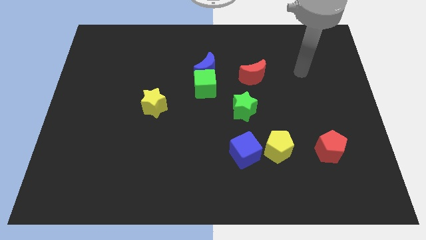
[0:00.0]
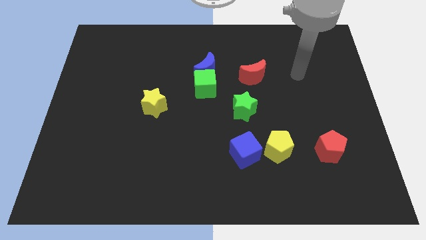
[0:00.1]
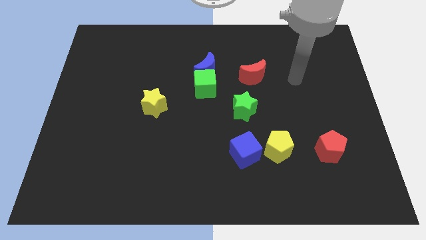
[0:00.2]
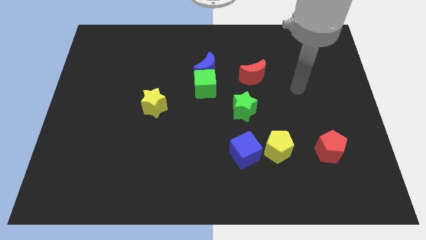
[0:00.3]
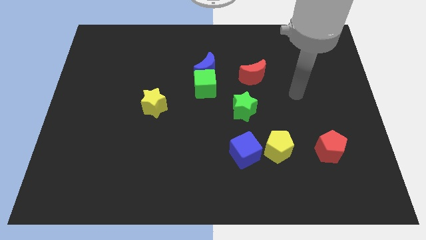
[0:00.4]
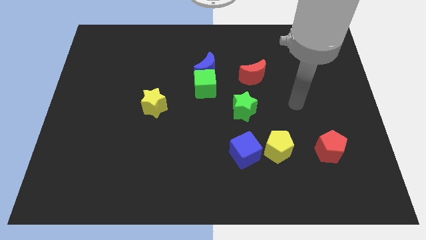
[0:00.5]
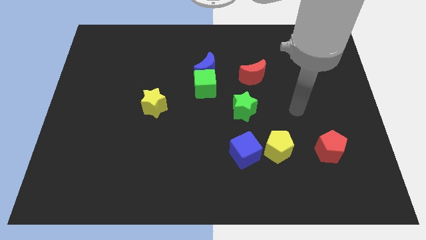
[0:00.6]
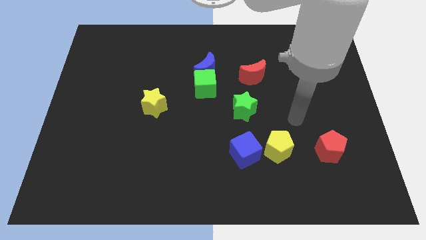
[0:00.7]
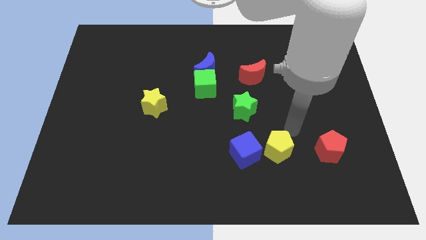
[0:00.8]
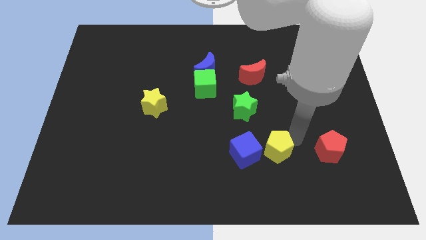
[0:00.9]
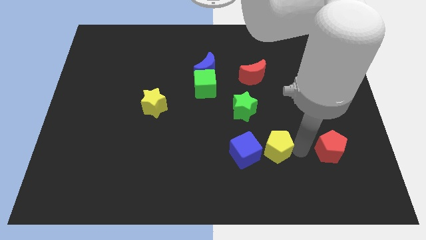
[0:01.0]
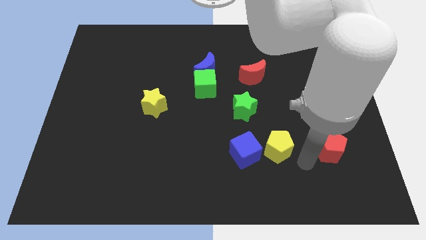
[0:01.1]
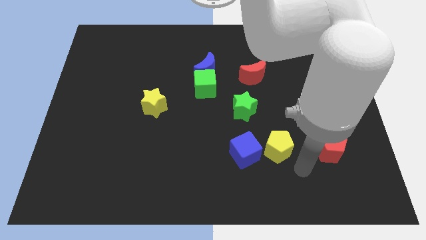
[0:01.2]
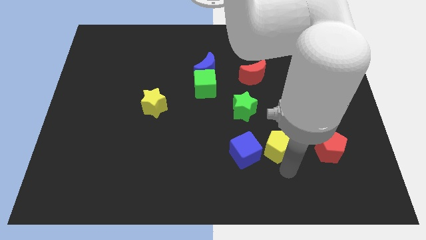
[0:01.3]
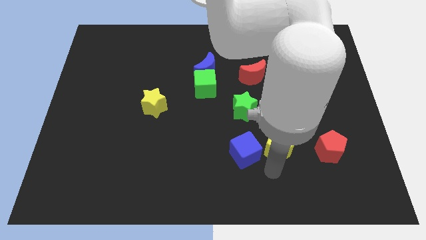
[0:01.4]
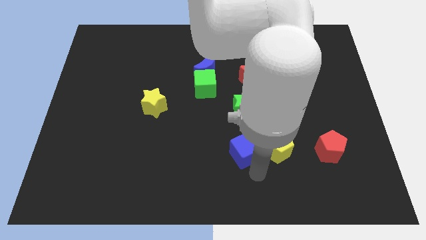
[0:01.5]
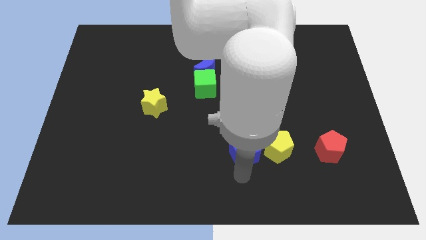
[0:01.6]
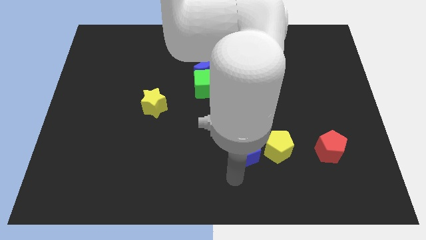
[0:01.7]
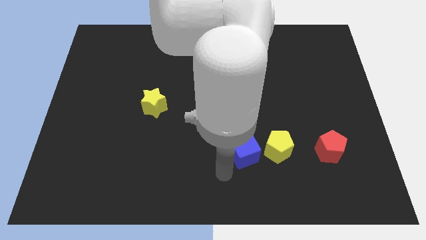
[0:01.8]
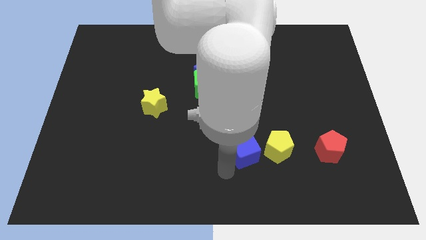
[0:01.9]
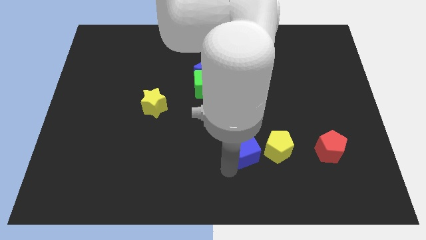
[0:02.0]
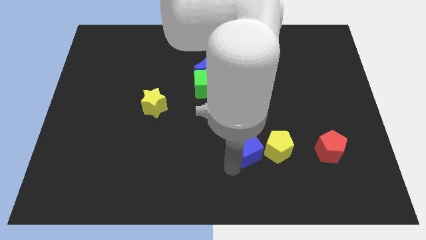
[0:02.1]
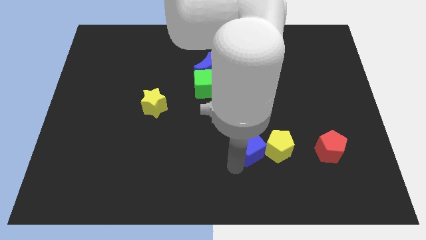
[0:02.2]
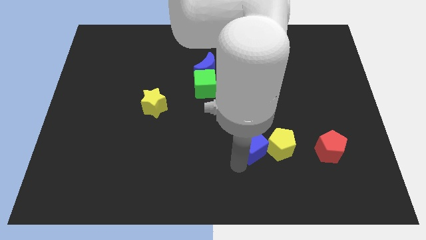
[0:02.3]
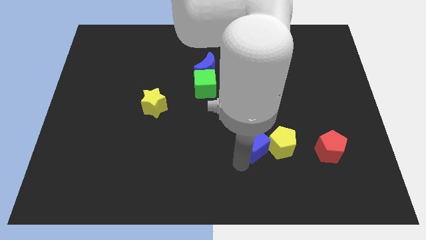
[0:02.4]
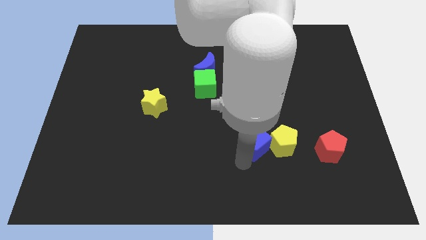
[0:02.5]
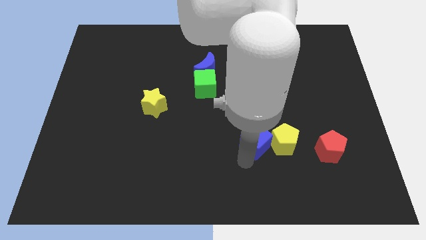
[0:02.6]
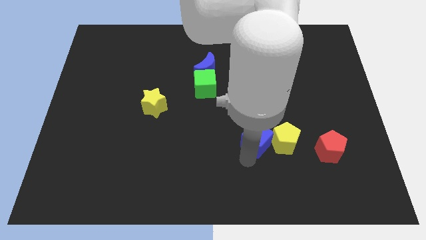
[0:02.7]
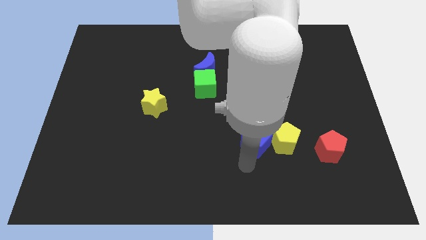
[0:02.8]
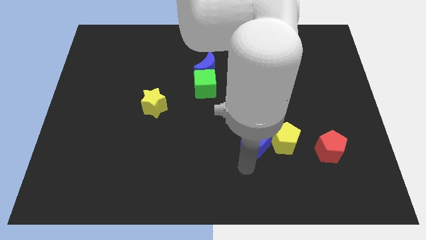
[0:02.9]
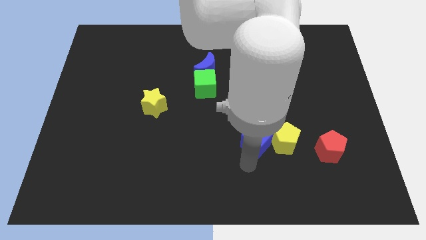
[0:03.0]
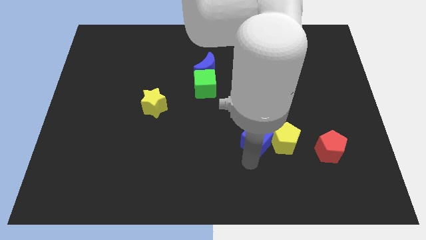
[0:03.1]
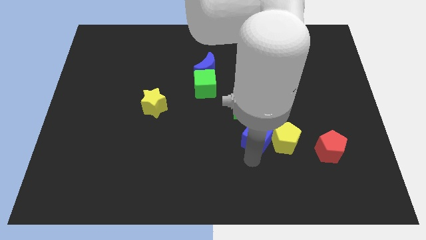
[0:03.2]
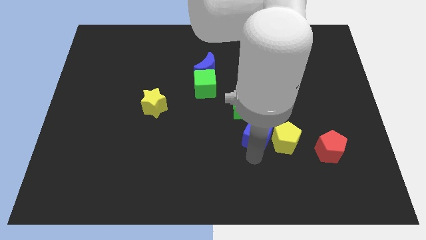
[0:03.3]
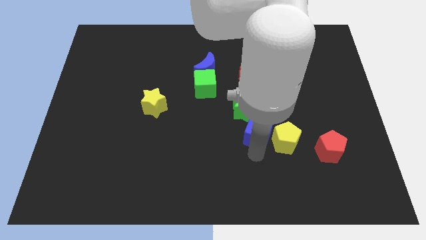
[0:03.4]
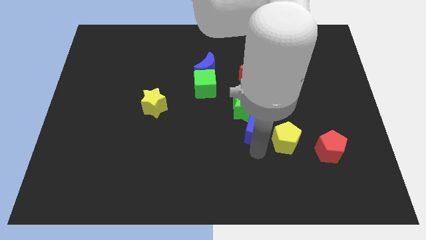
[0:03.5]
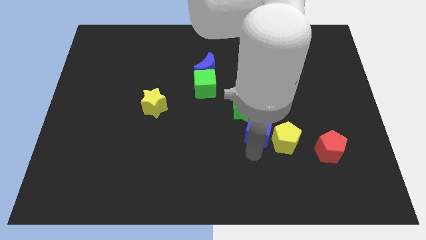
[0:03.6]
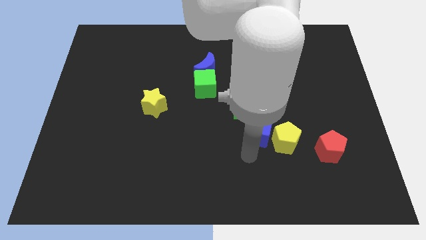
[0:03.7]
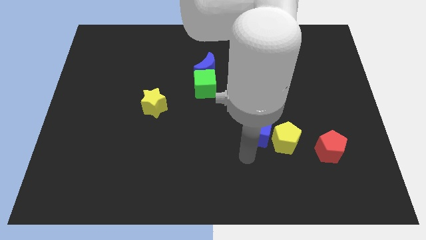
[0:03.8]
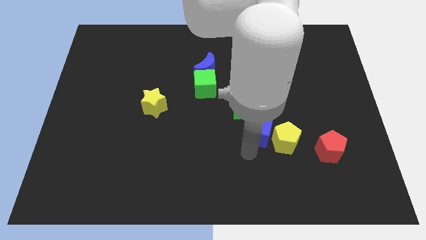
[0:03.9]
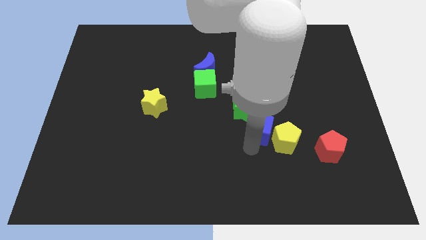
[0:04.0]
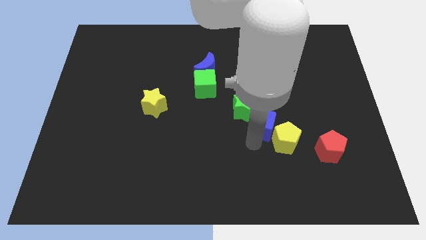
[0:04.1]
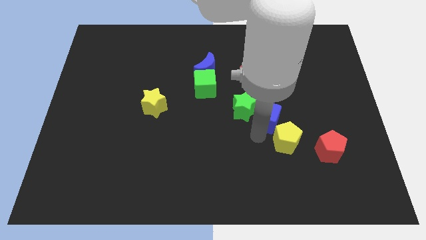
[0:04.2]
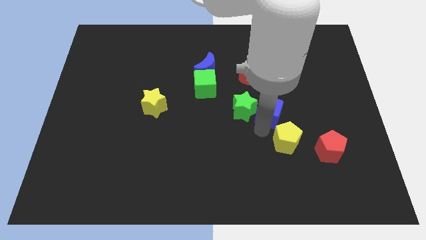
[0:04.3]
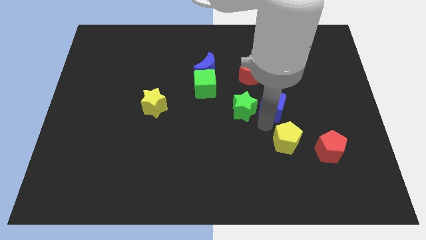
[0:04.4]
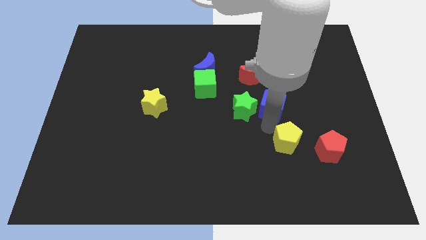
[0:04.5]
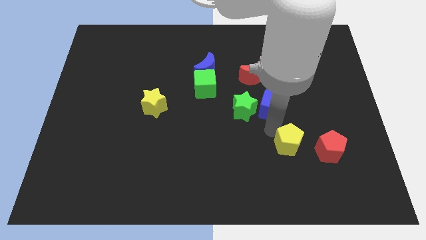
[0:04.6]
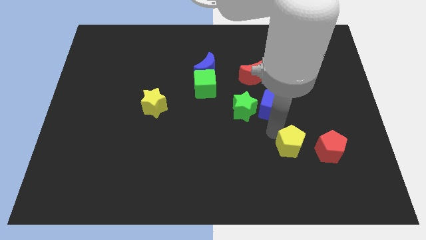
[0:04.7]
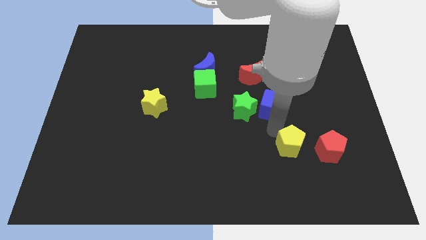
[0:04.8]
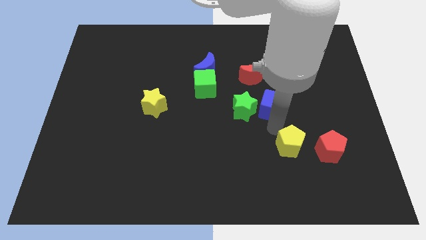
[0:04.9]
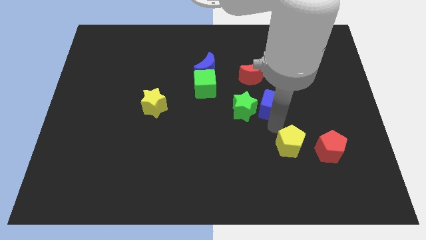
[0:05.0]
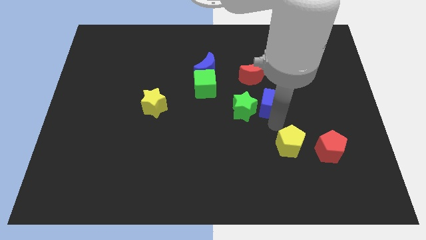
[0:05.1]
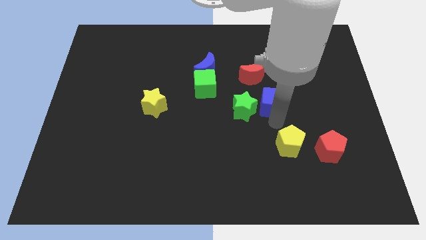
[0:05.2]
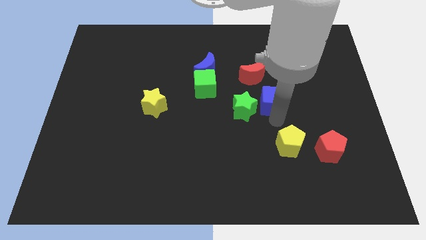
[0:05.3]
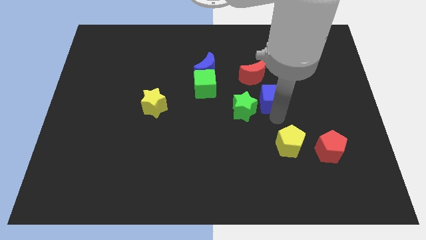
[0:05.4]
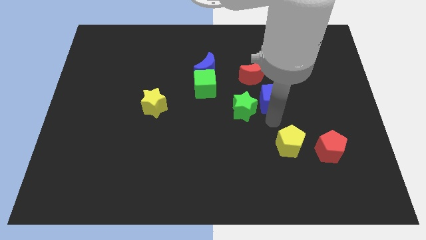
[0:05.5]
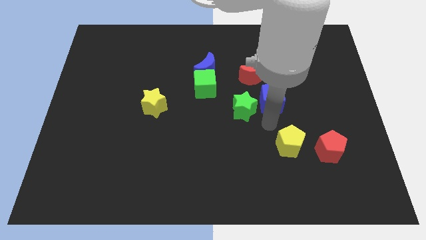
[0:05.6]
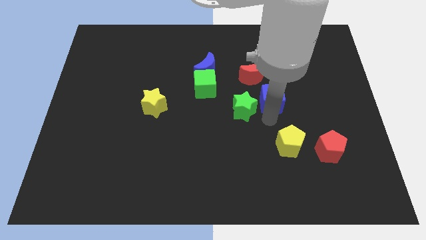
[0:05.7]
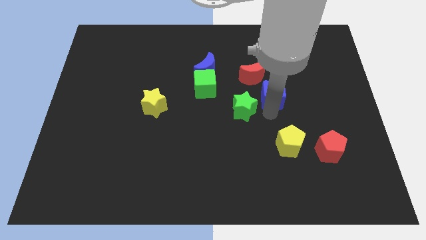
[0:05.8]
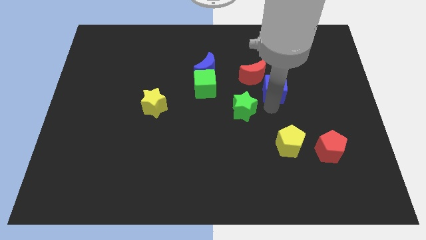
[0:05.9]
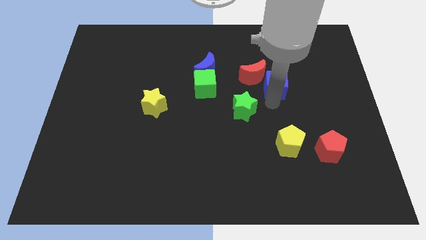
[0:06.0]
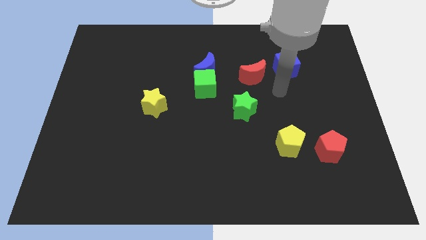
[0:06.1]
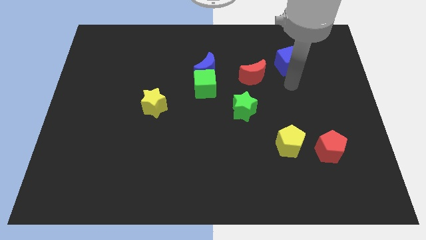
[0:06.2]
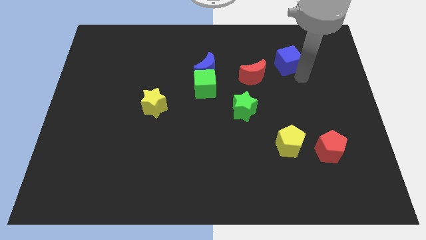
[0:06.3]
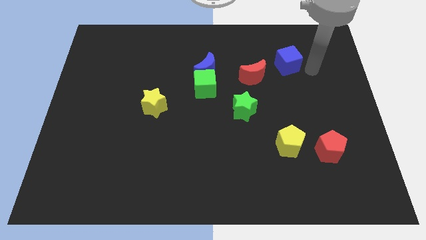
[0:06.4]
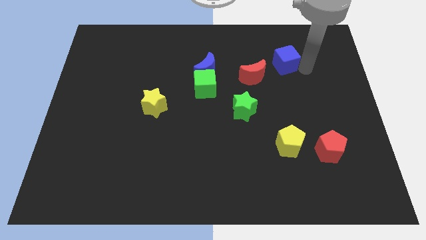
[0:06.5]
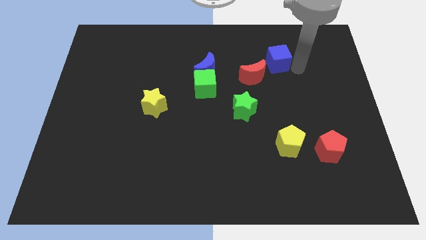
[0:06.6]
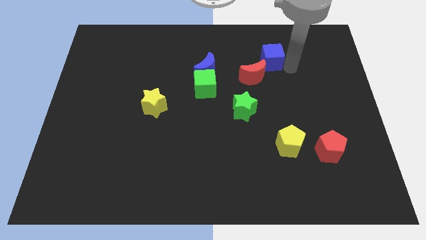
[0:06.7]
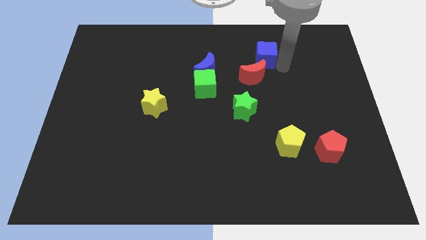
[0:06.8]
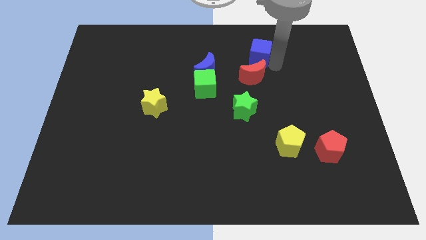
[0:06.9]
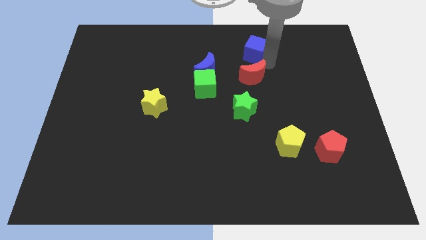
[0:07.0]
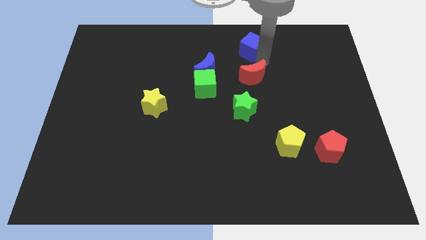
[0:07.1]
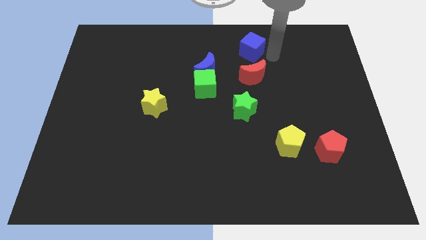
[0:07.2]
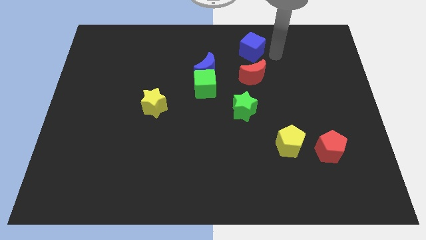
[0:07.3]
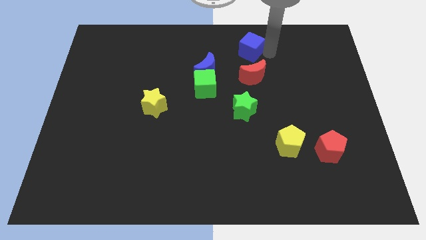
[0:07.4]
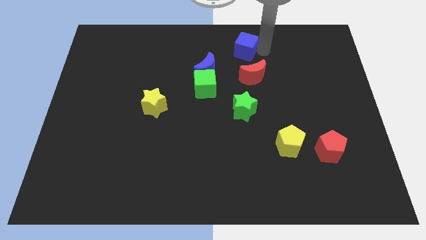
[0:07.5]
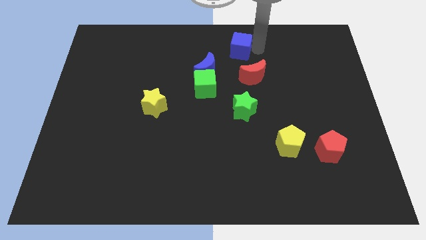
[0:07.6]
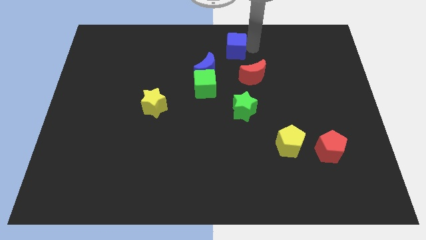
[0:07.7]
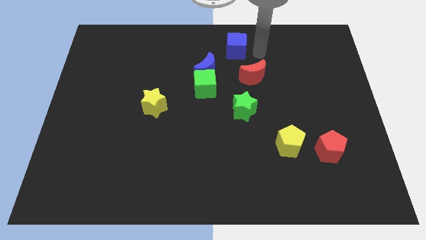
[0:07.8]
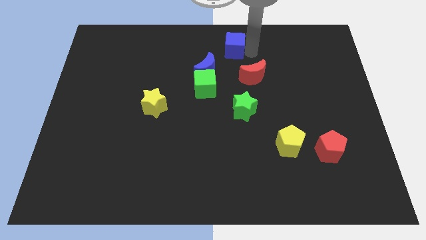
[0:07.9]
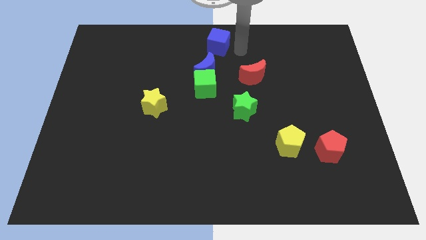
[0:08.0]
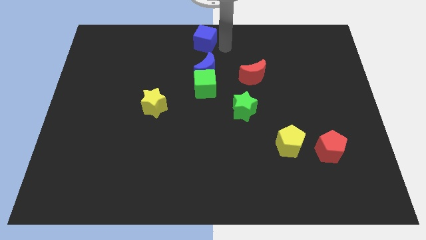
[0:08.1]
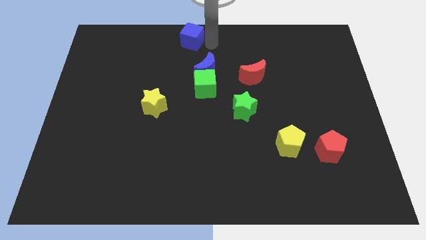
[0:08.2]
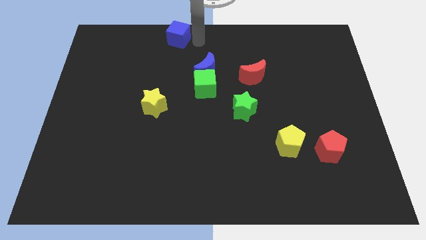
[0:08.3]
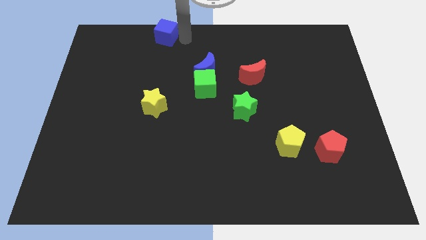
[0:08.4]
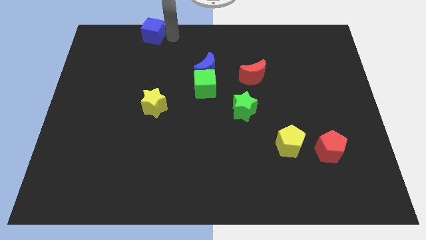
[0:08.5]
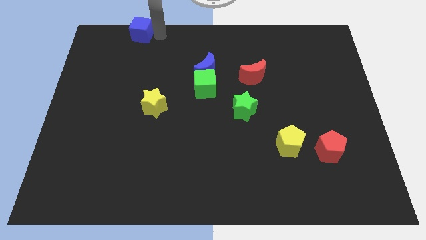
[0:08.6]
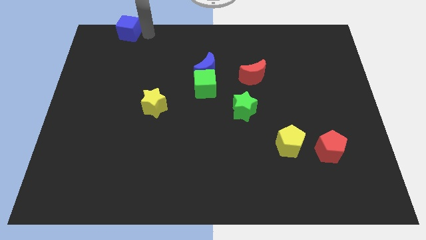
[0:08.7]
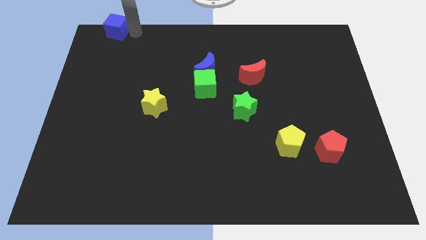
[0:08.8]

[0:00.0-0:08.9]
slide the blue cube to the top left
